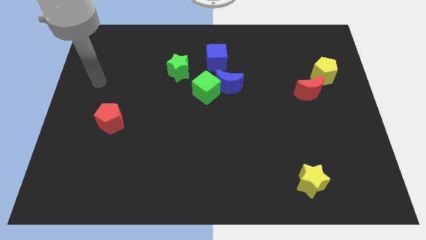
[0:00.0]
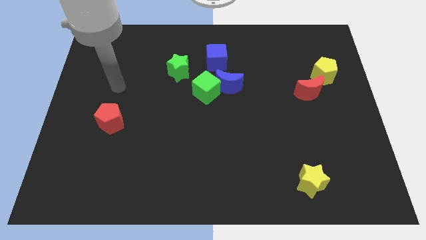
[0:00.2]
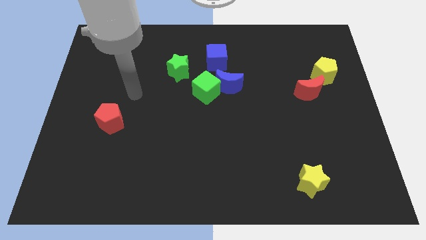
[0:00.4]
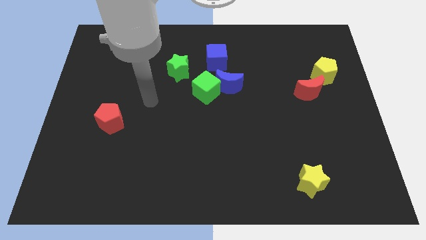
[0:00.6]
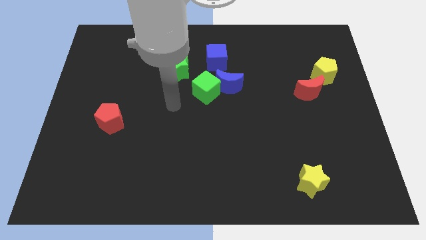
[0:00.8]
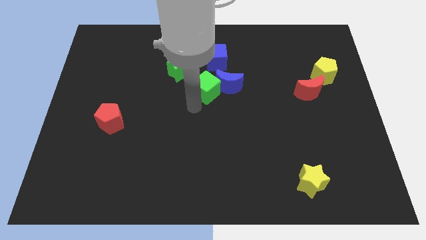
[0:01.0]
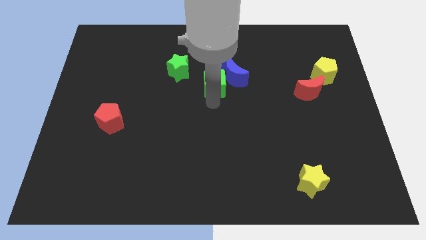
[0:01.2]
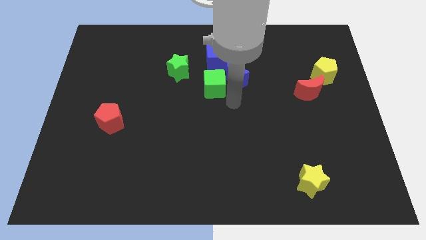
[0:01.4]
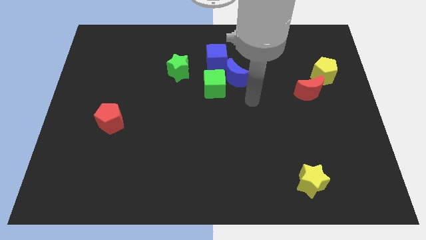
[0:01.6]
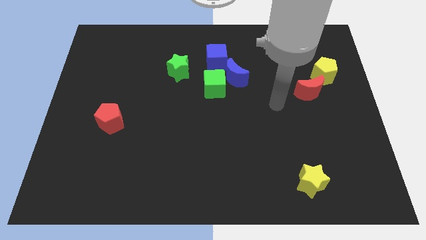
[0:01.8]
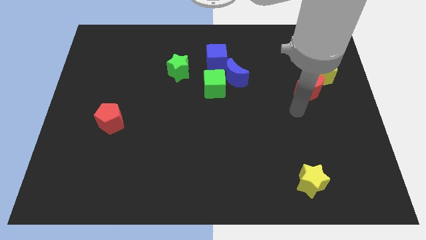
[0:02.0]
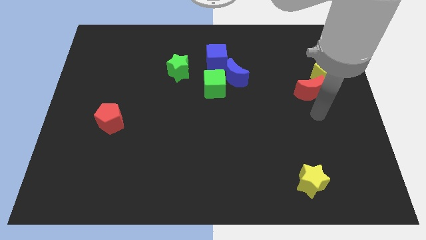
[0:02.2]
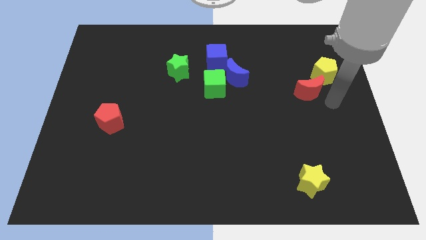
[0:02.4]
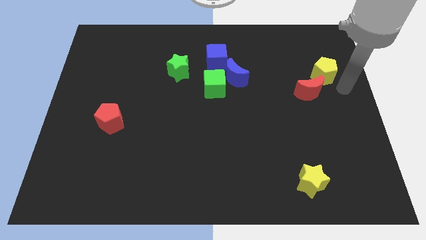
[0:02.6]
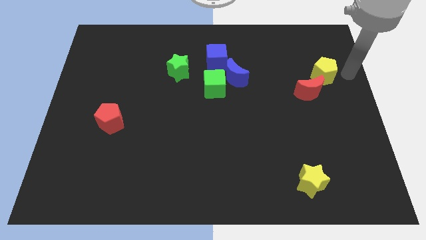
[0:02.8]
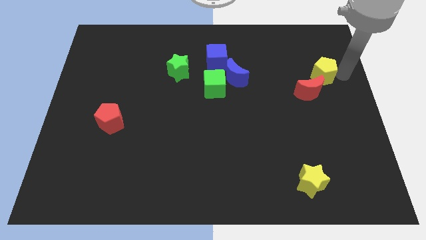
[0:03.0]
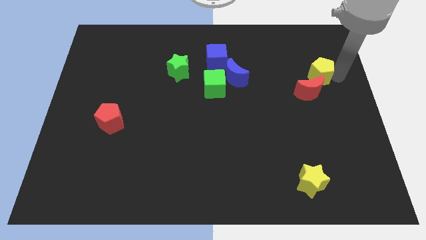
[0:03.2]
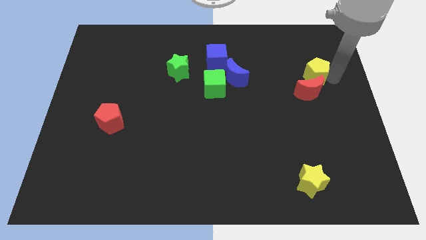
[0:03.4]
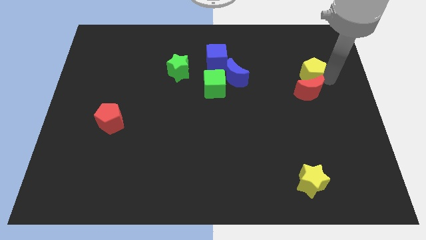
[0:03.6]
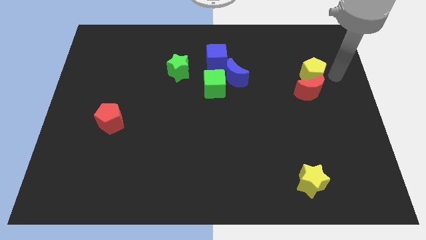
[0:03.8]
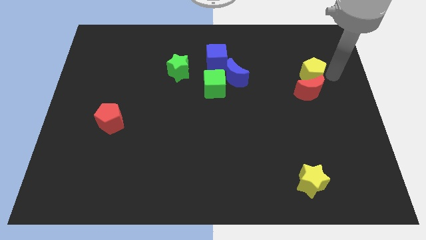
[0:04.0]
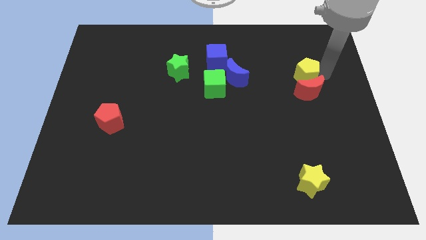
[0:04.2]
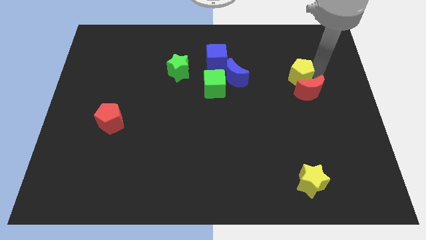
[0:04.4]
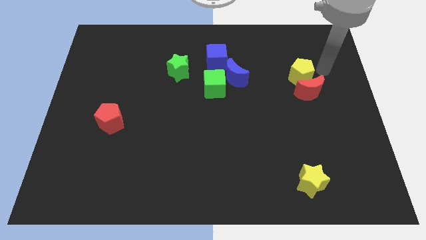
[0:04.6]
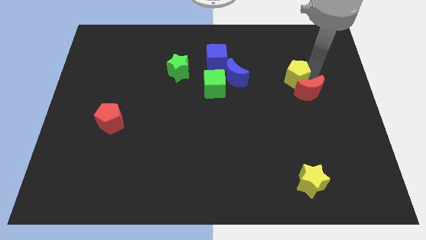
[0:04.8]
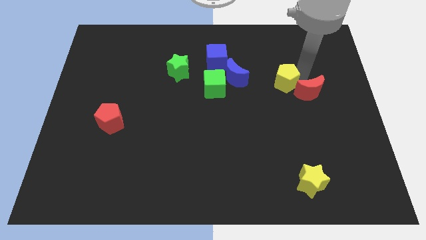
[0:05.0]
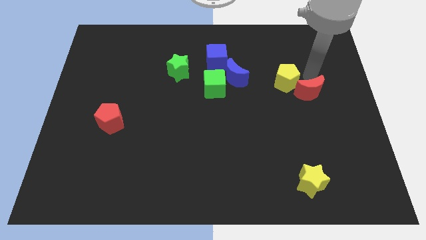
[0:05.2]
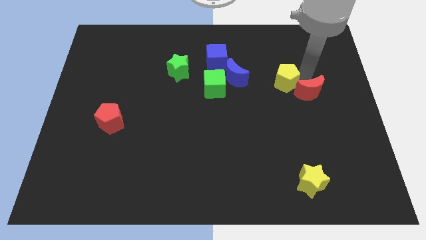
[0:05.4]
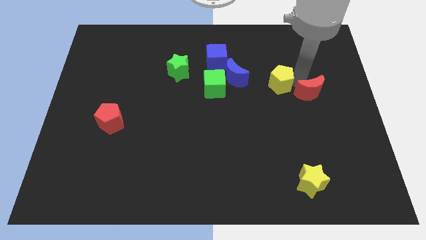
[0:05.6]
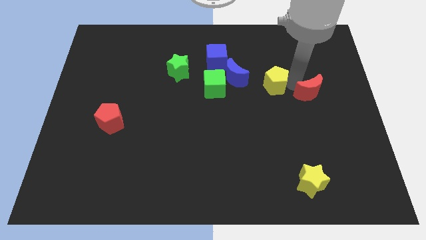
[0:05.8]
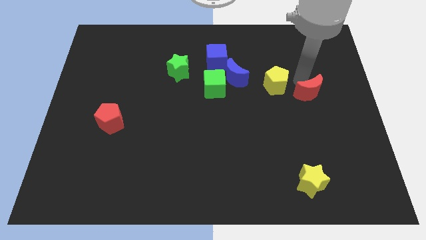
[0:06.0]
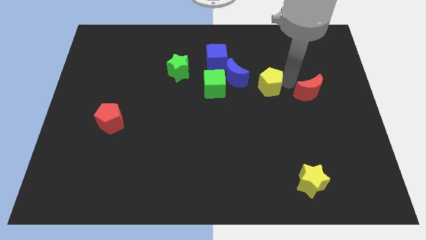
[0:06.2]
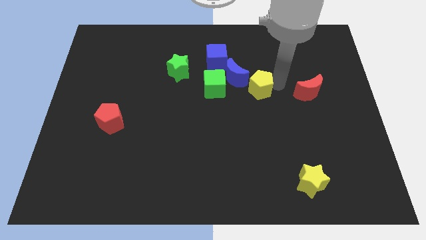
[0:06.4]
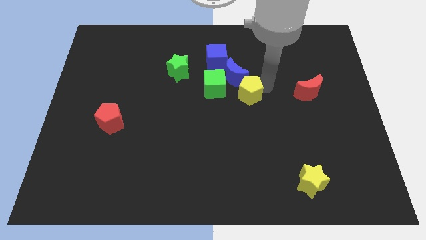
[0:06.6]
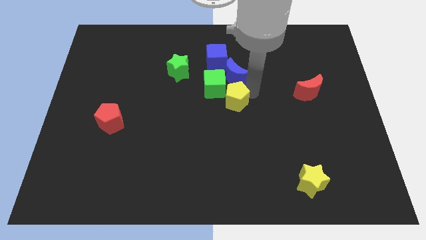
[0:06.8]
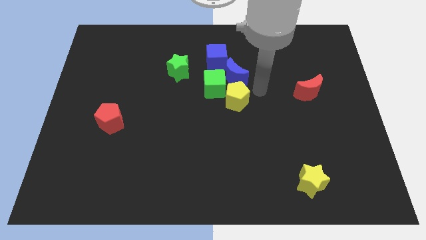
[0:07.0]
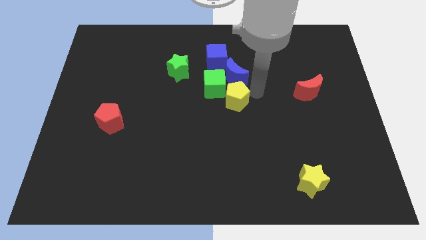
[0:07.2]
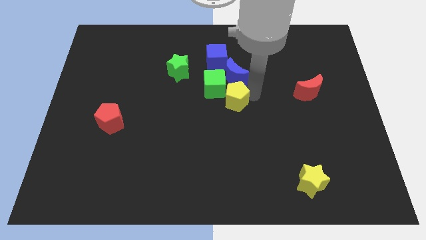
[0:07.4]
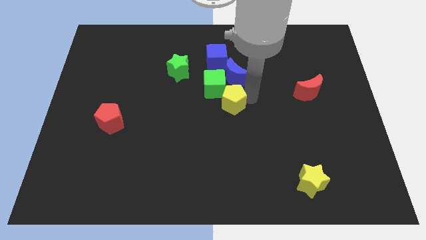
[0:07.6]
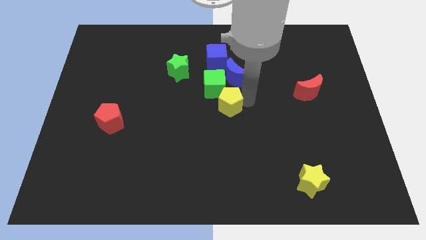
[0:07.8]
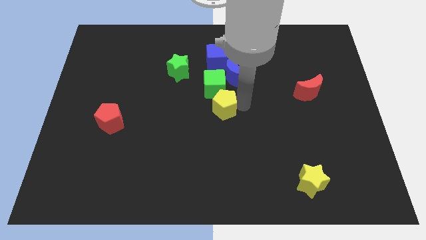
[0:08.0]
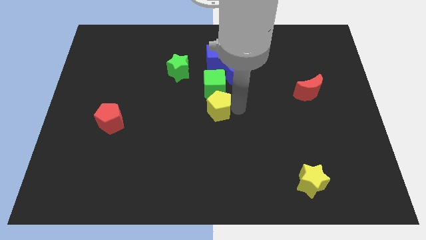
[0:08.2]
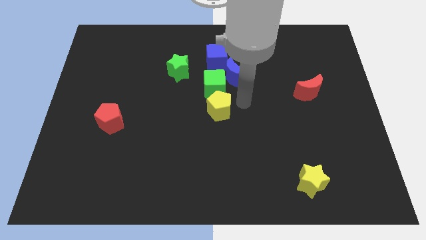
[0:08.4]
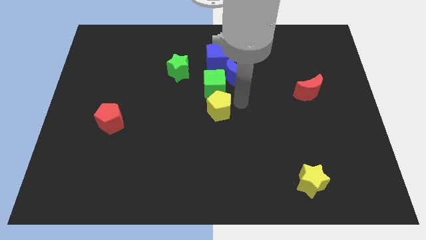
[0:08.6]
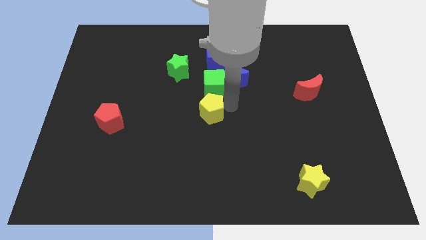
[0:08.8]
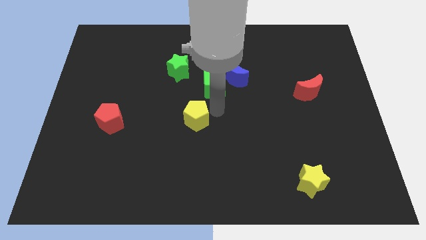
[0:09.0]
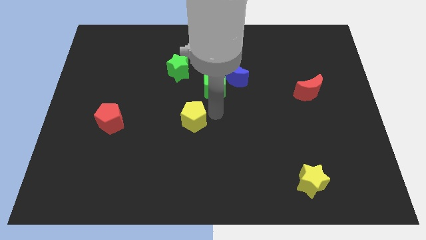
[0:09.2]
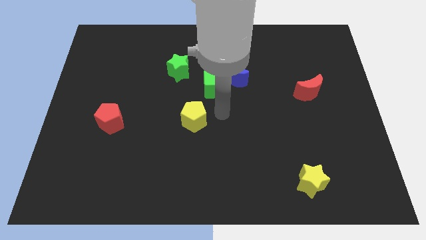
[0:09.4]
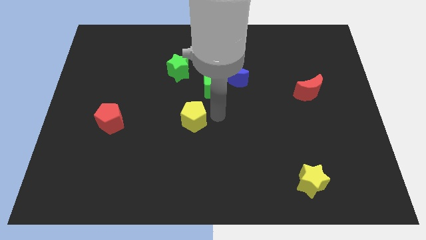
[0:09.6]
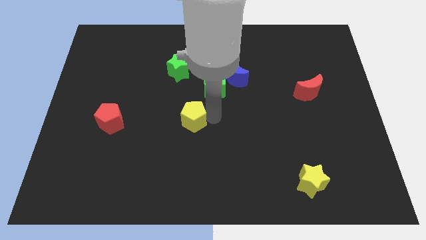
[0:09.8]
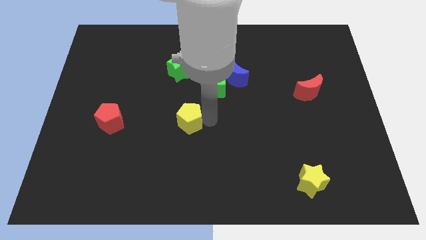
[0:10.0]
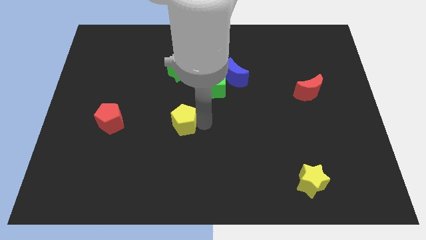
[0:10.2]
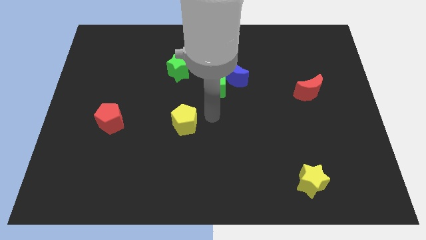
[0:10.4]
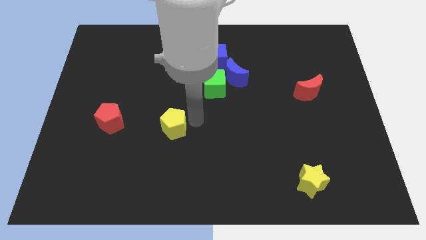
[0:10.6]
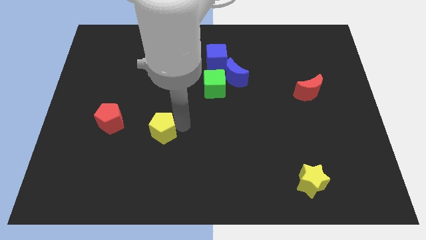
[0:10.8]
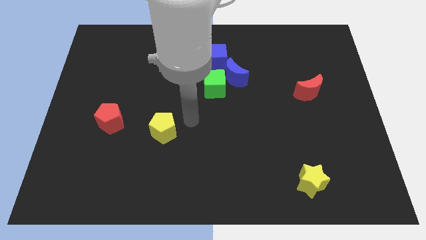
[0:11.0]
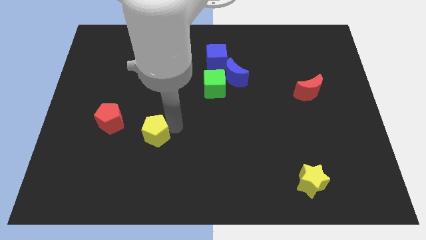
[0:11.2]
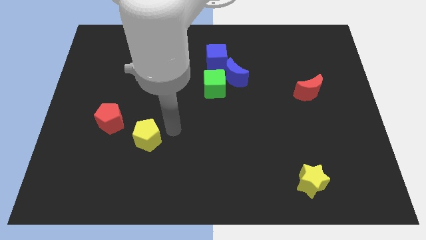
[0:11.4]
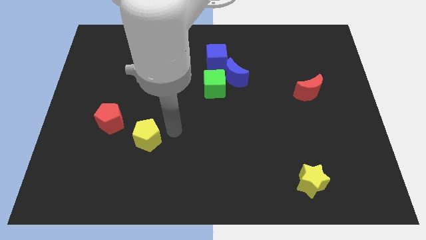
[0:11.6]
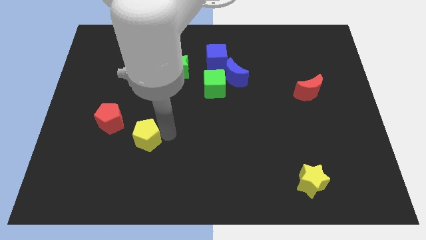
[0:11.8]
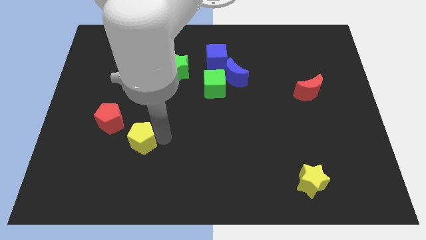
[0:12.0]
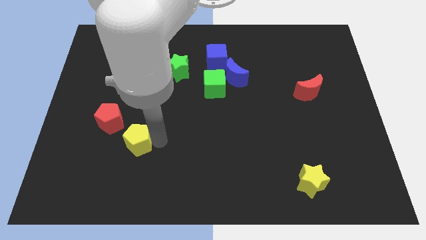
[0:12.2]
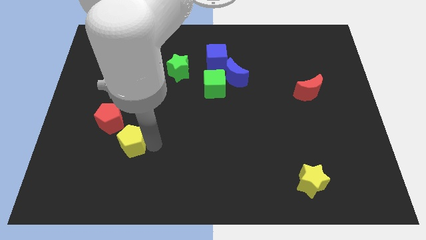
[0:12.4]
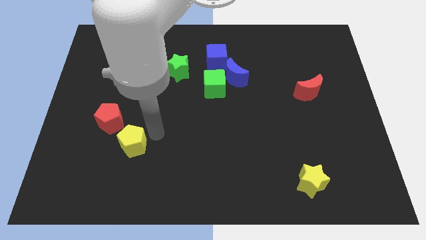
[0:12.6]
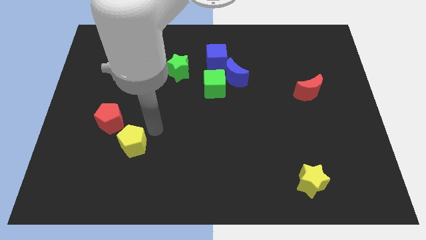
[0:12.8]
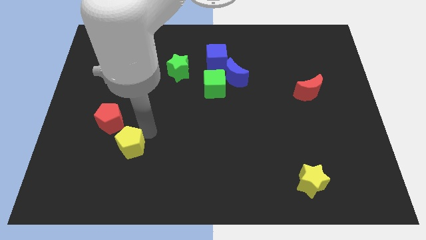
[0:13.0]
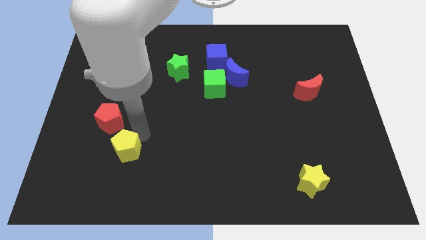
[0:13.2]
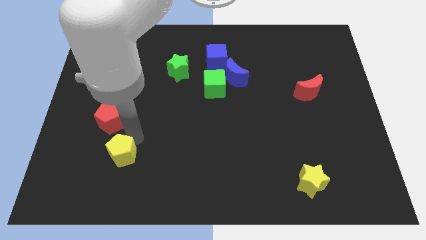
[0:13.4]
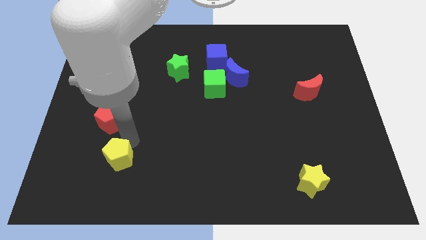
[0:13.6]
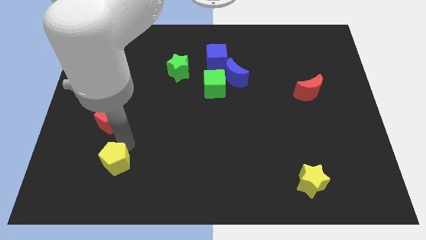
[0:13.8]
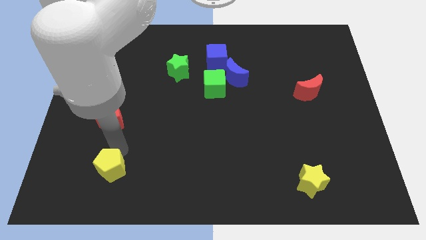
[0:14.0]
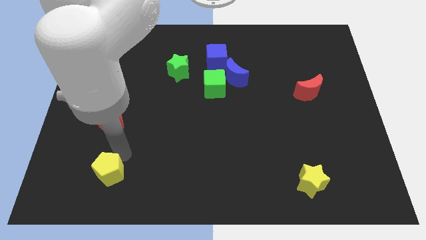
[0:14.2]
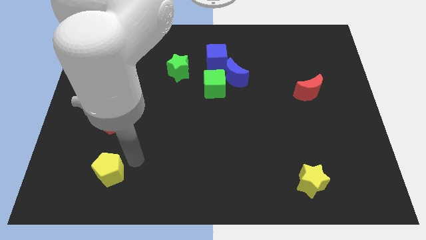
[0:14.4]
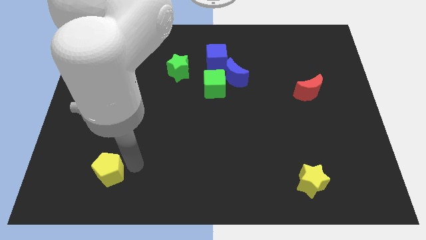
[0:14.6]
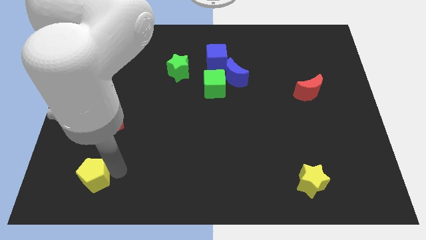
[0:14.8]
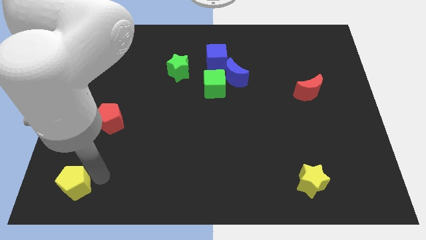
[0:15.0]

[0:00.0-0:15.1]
move the yellow pentagon to the bottom left corner
